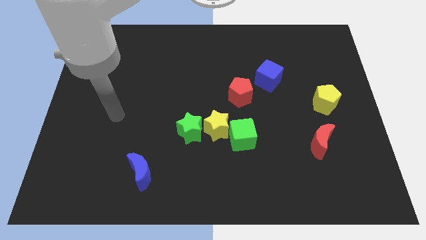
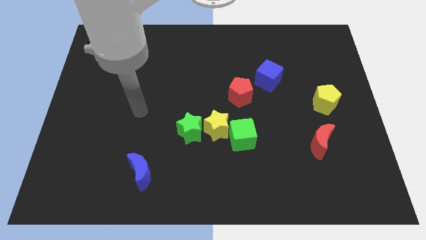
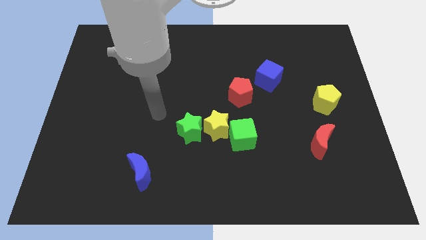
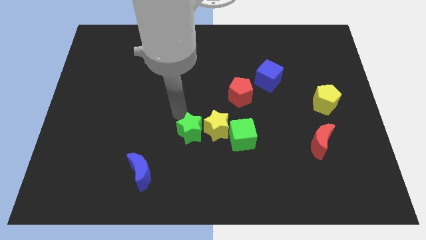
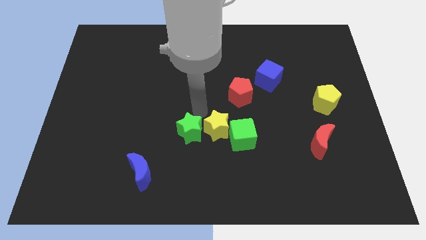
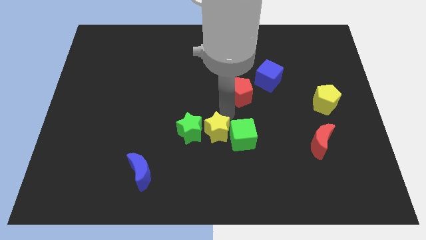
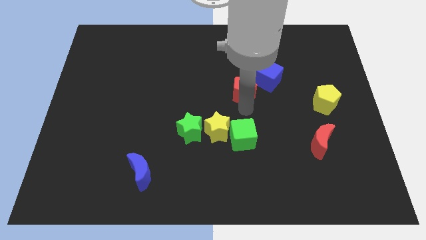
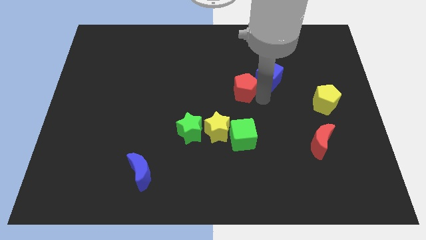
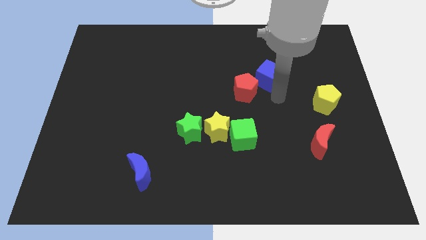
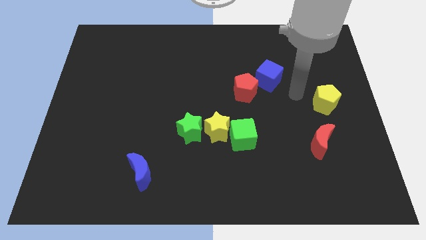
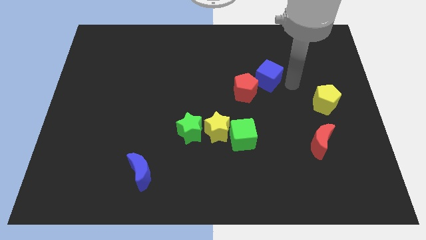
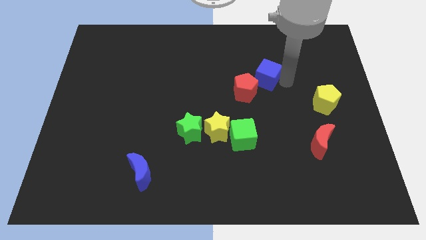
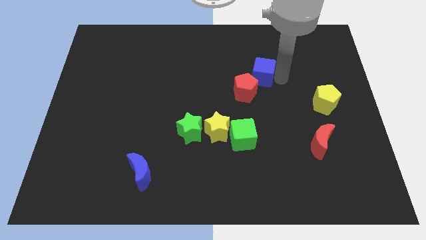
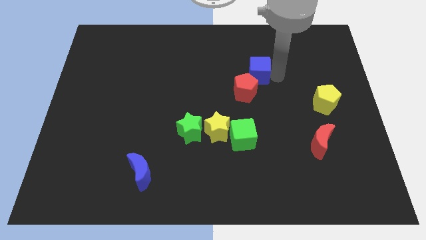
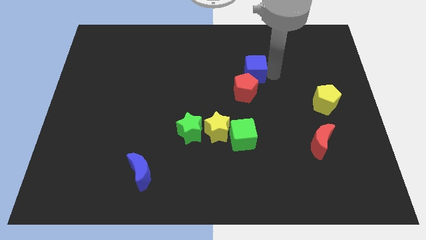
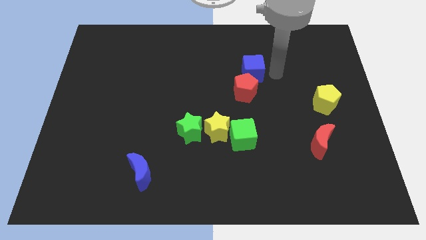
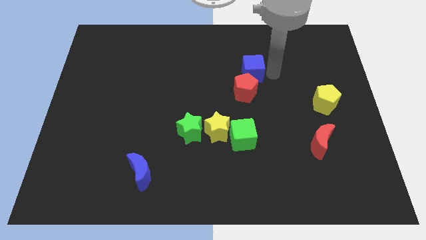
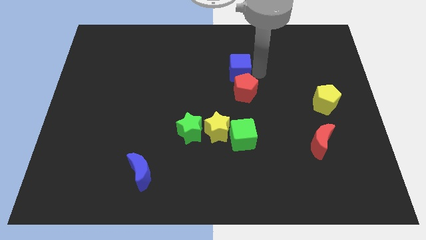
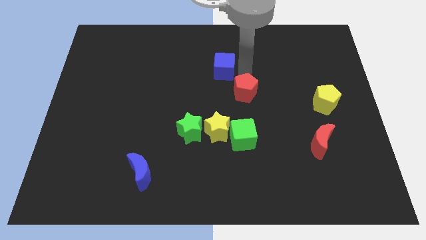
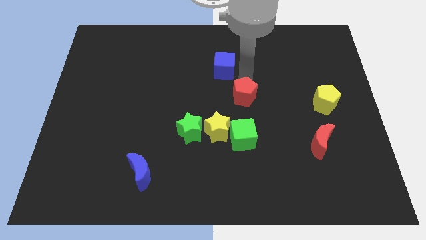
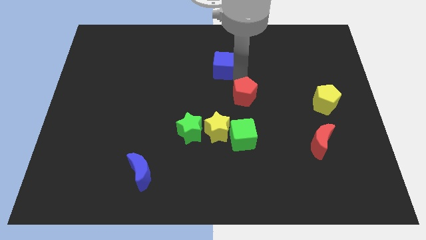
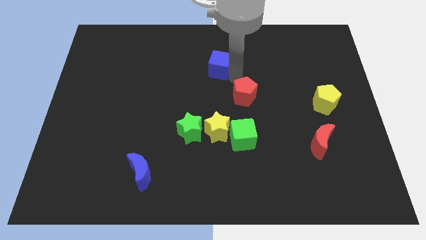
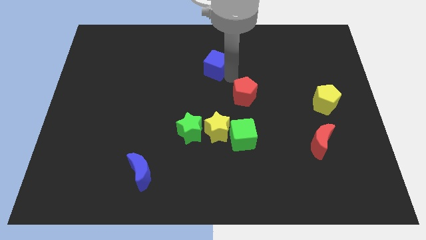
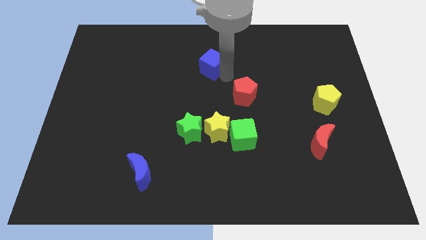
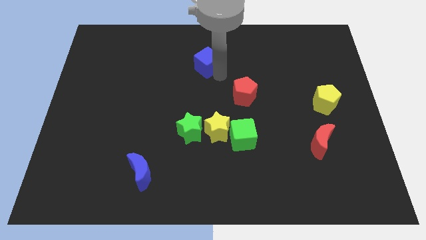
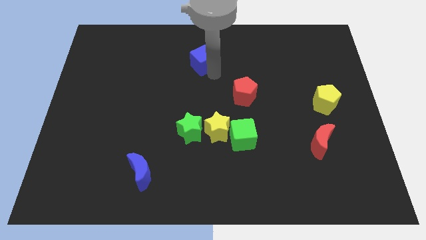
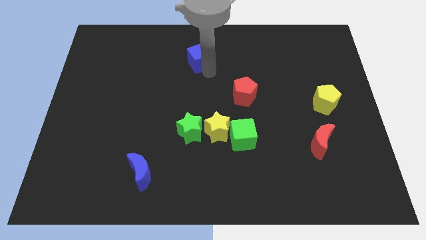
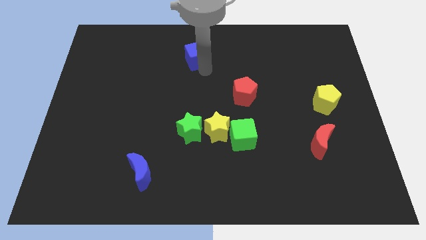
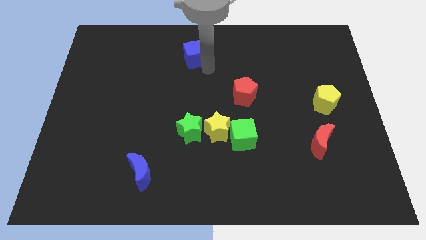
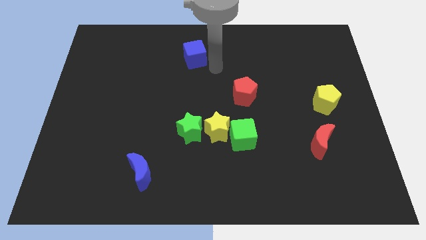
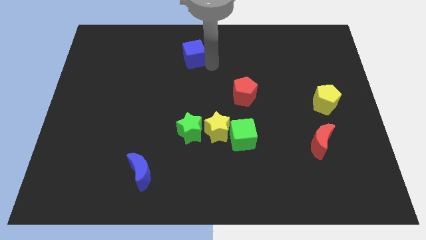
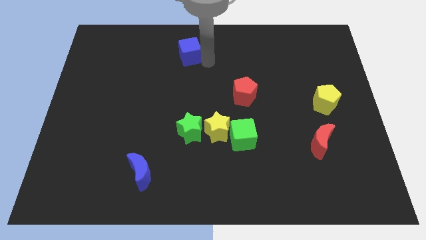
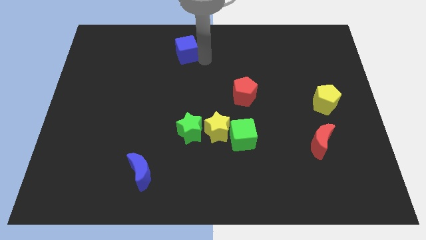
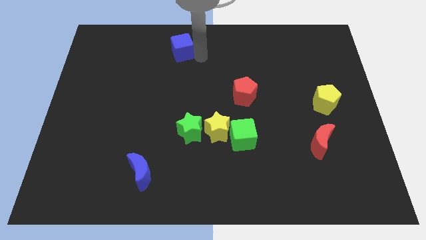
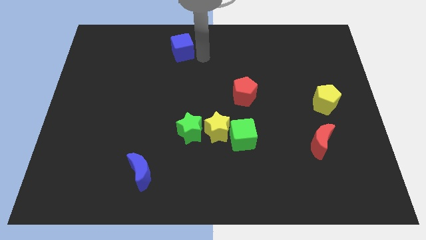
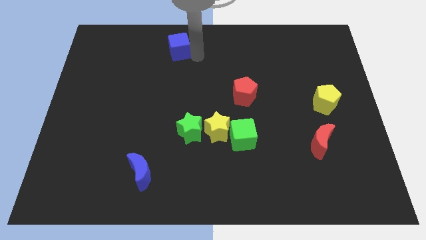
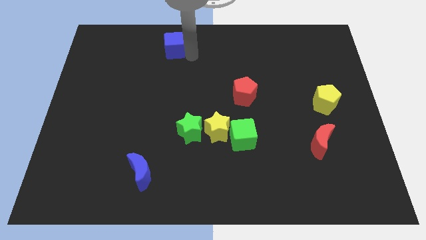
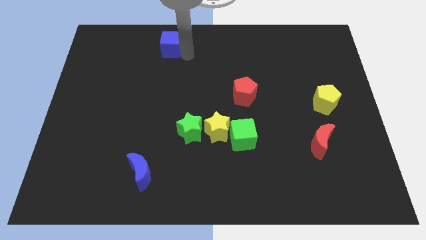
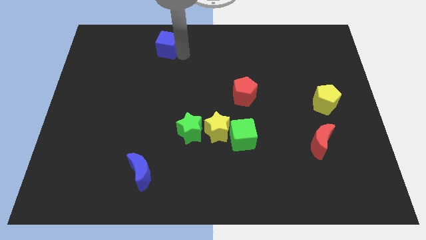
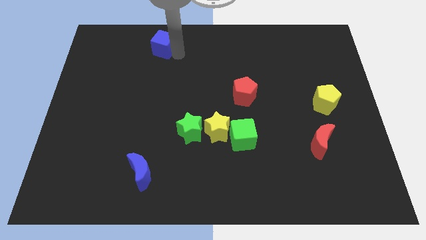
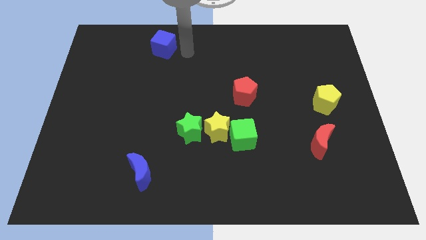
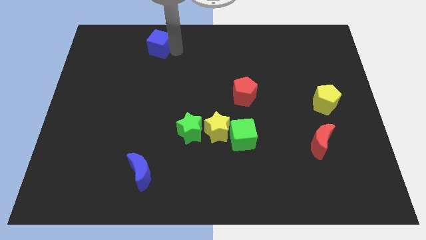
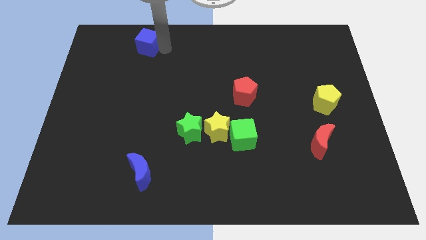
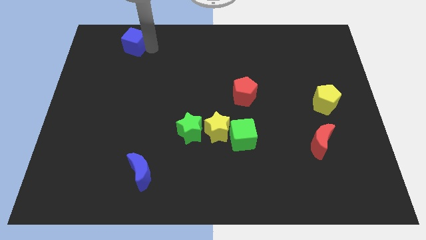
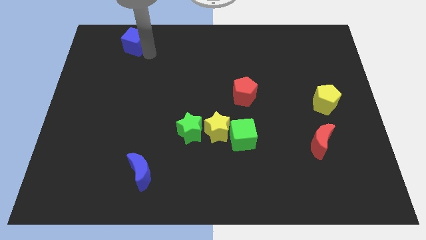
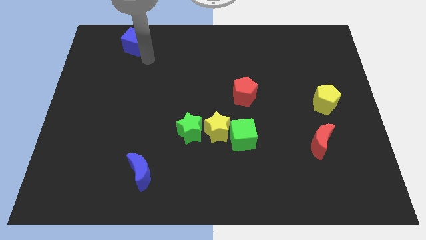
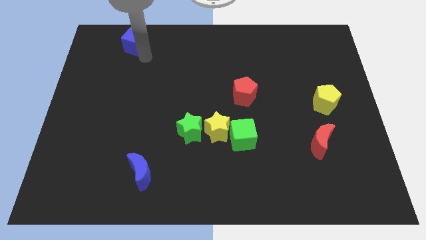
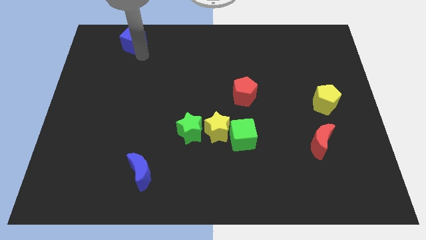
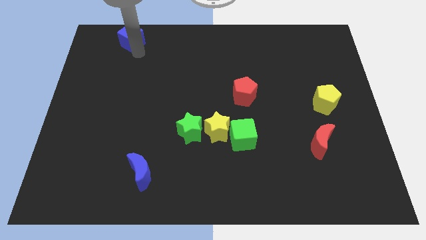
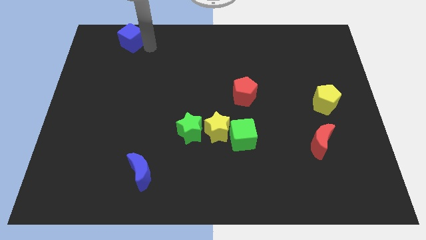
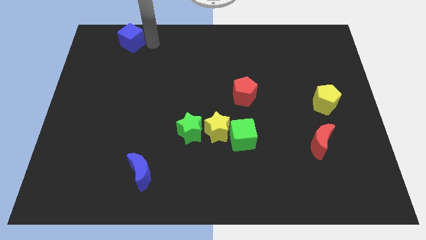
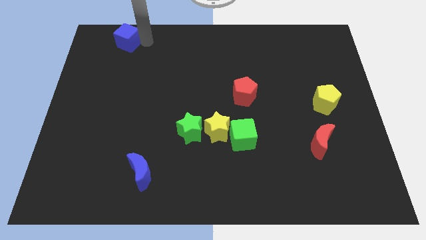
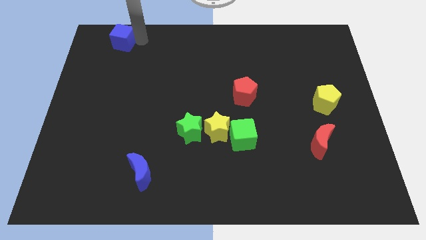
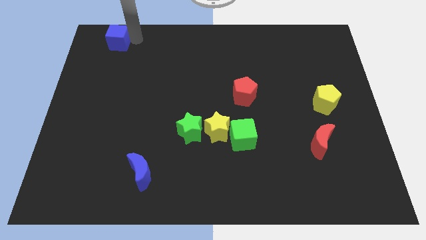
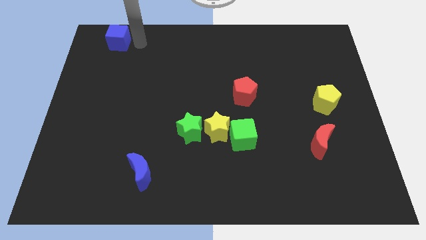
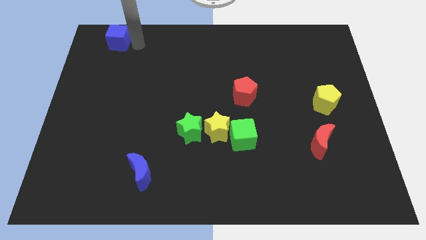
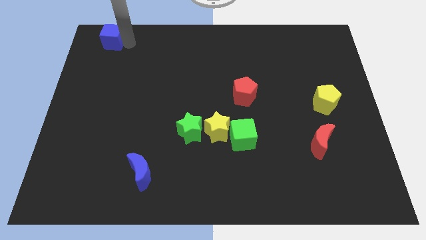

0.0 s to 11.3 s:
slide the blue cube to the top left of the board
